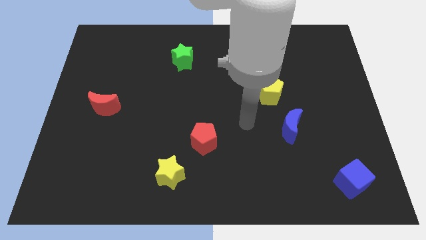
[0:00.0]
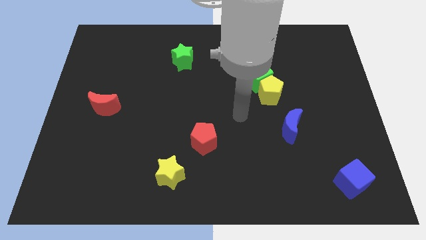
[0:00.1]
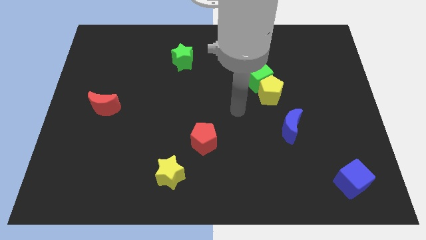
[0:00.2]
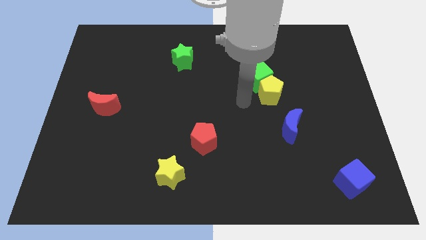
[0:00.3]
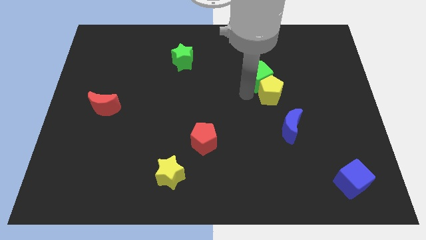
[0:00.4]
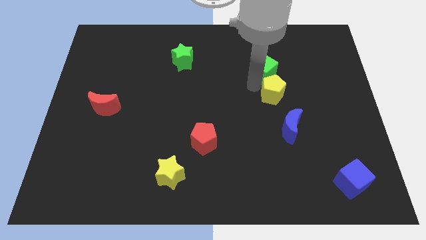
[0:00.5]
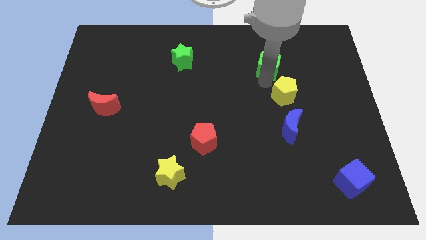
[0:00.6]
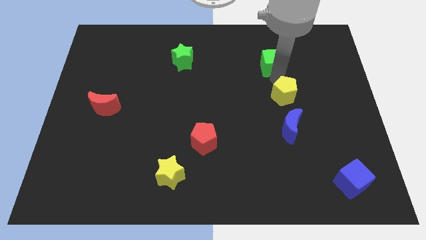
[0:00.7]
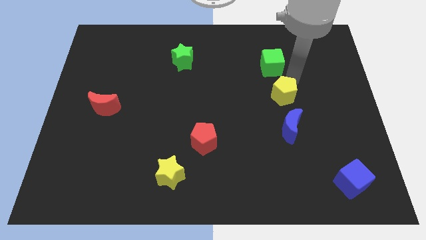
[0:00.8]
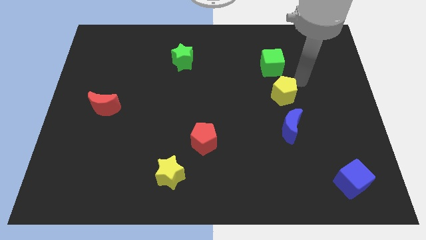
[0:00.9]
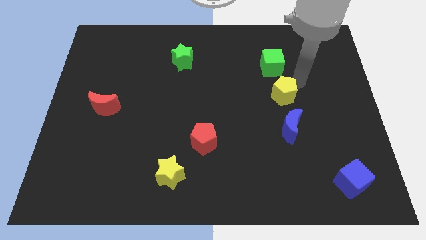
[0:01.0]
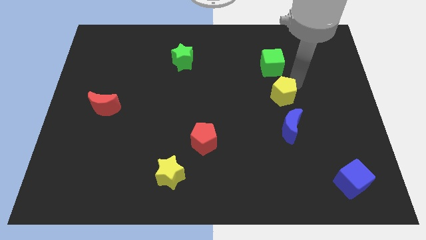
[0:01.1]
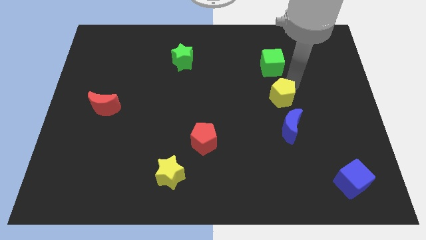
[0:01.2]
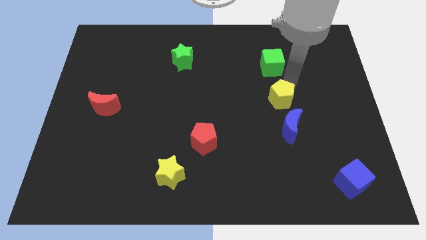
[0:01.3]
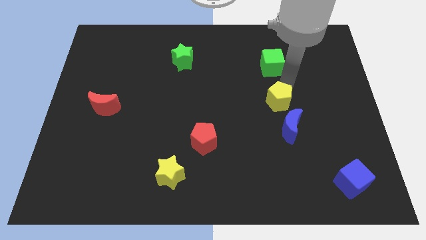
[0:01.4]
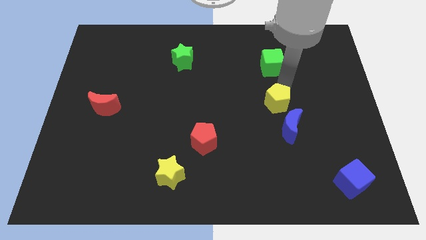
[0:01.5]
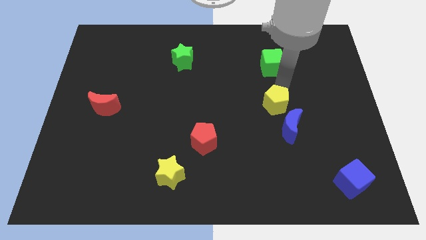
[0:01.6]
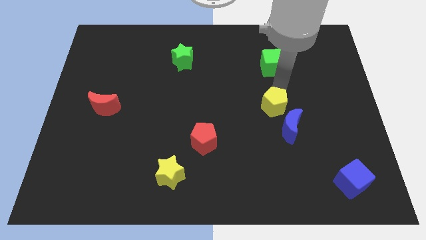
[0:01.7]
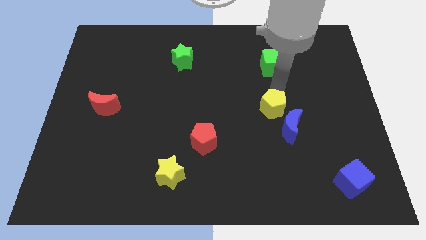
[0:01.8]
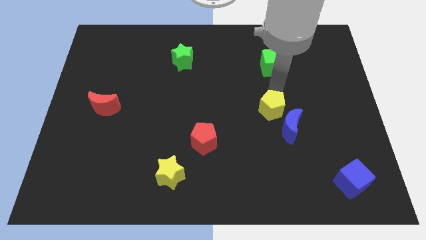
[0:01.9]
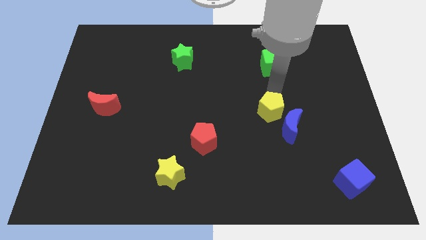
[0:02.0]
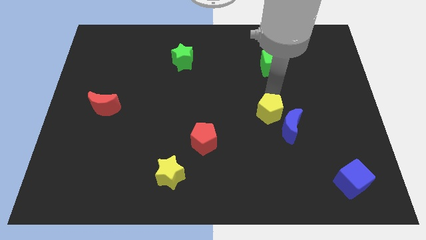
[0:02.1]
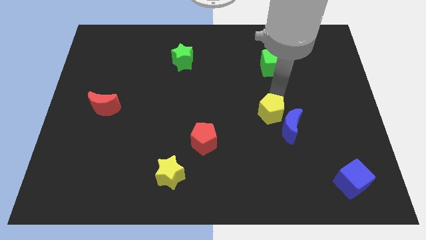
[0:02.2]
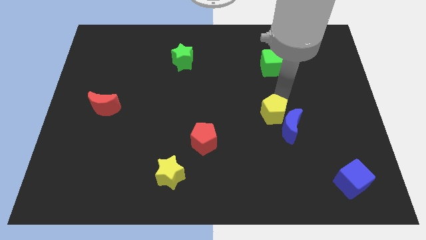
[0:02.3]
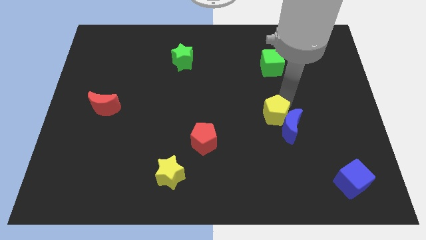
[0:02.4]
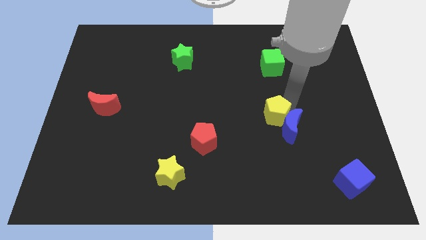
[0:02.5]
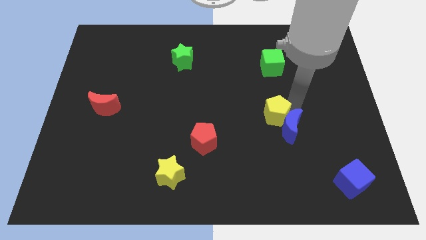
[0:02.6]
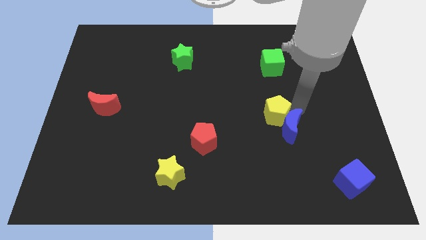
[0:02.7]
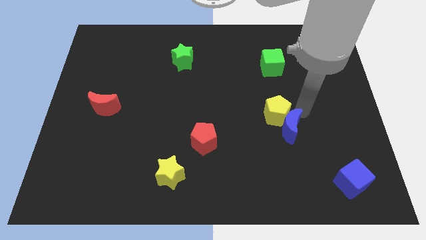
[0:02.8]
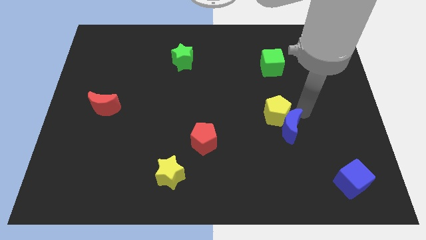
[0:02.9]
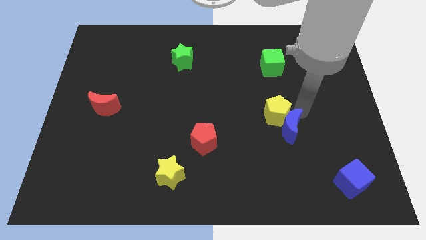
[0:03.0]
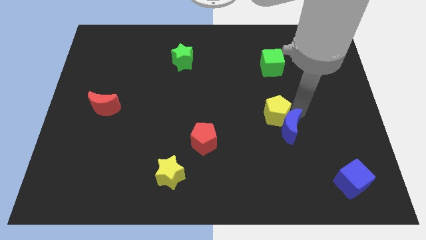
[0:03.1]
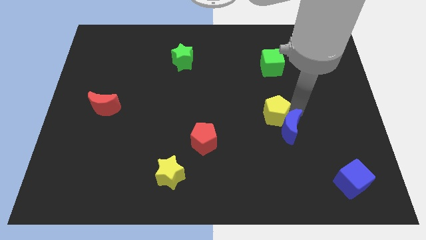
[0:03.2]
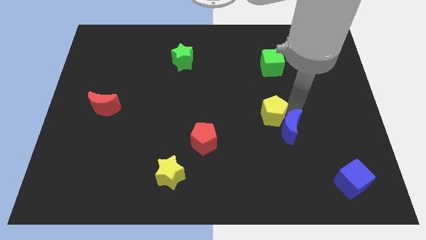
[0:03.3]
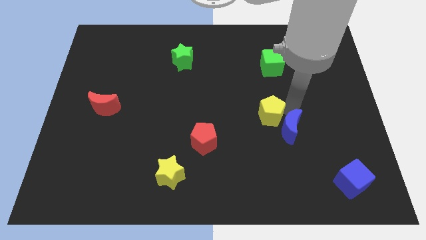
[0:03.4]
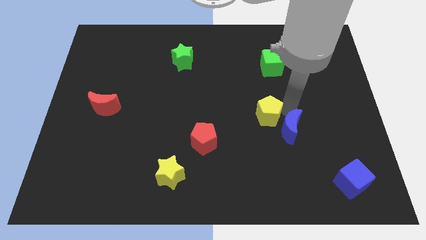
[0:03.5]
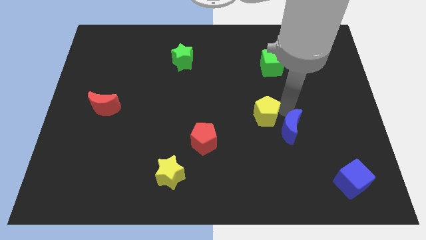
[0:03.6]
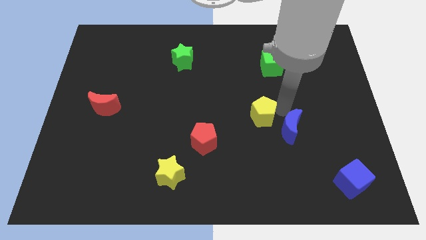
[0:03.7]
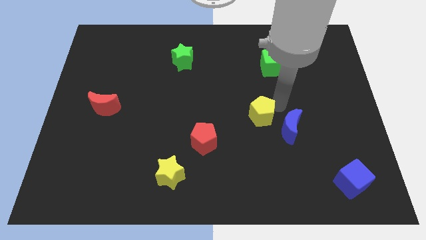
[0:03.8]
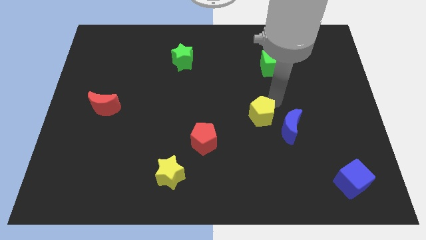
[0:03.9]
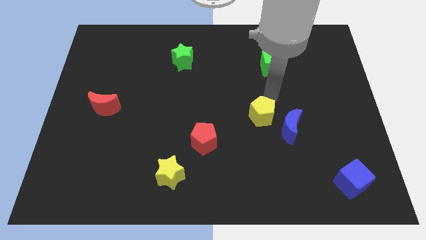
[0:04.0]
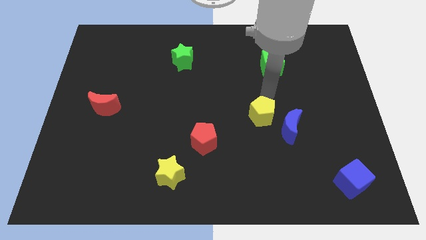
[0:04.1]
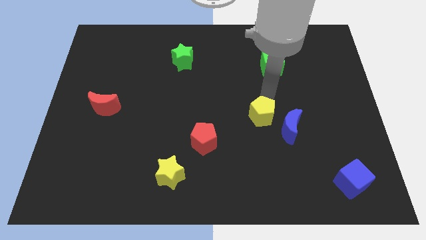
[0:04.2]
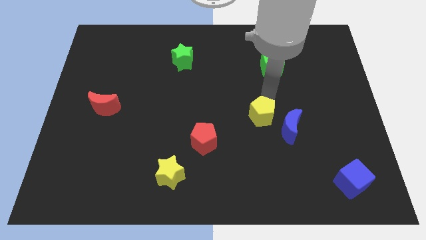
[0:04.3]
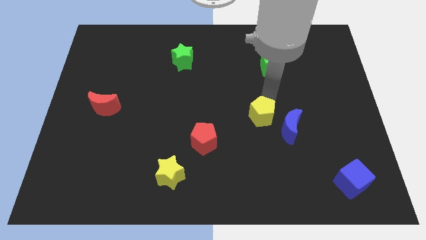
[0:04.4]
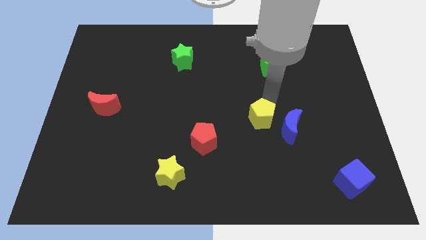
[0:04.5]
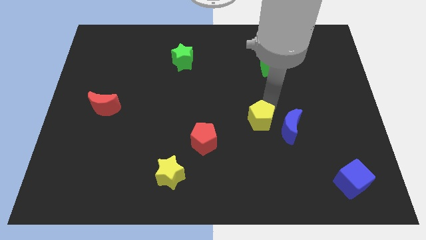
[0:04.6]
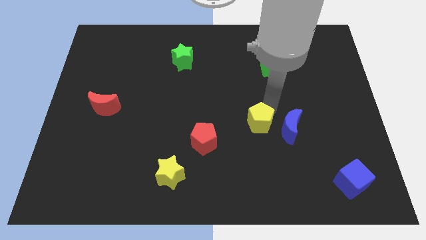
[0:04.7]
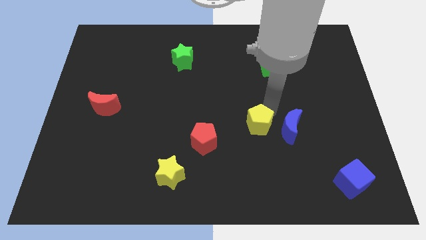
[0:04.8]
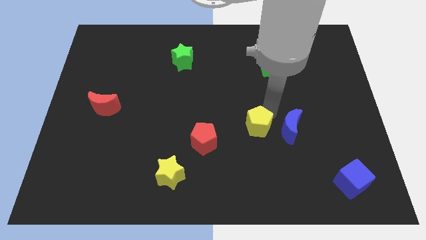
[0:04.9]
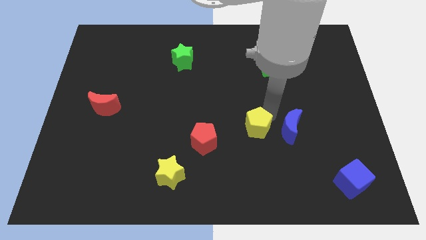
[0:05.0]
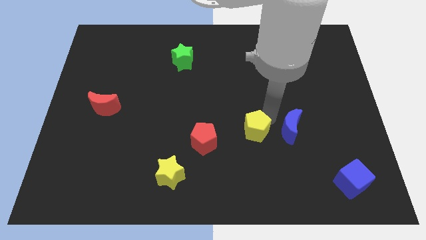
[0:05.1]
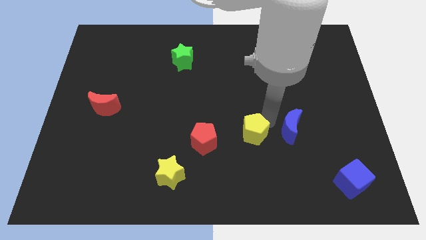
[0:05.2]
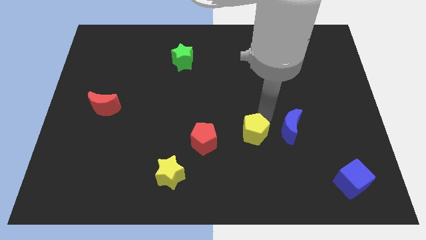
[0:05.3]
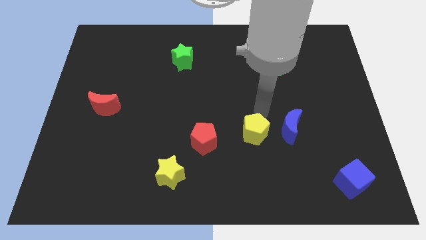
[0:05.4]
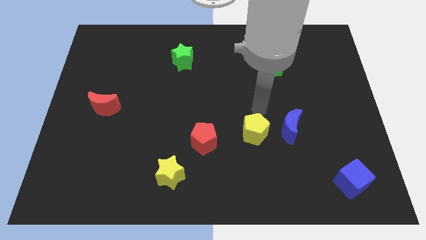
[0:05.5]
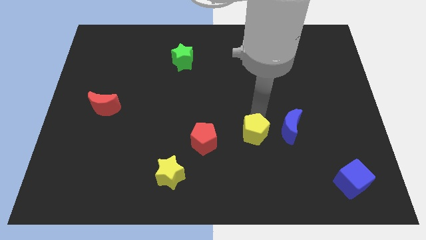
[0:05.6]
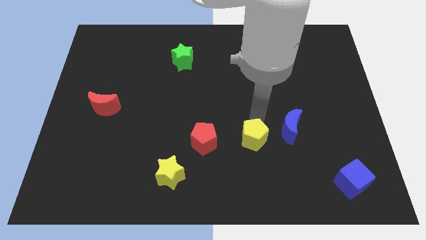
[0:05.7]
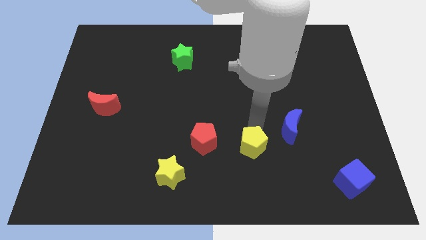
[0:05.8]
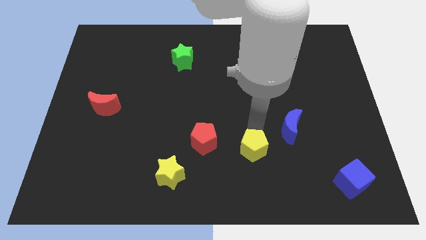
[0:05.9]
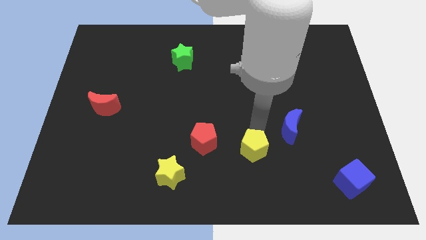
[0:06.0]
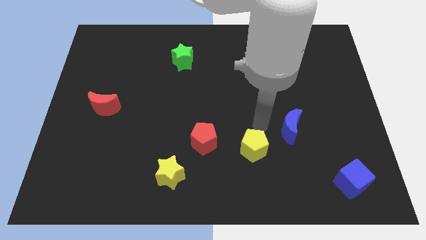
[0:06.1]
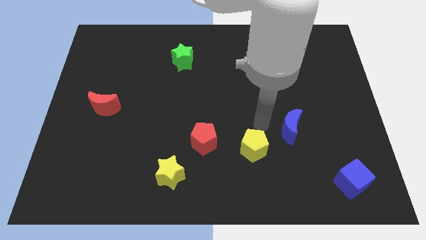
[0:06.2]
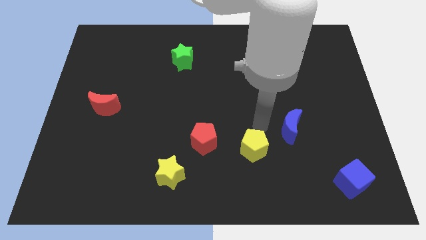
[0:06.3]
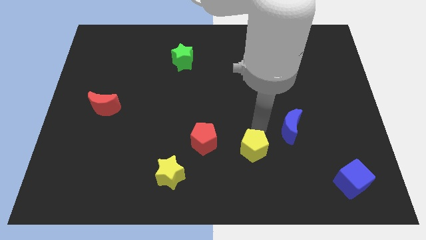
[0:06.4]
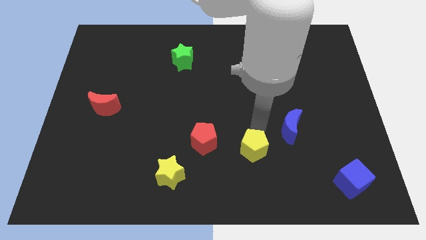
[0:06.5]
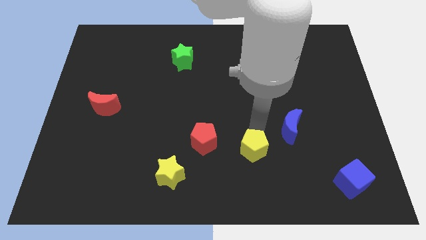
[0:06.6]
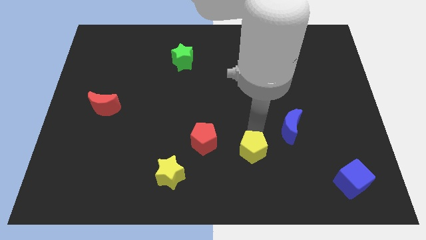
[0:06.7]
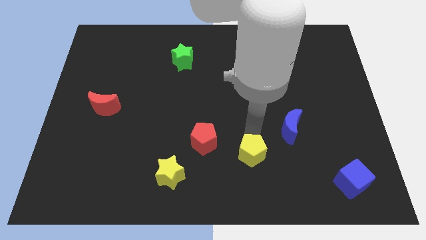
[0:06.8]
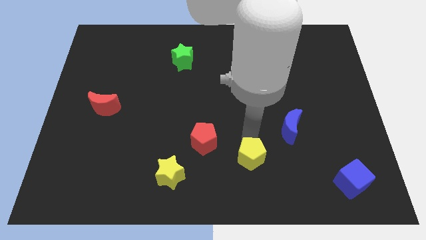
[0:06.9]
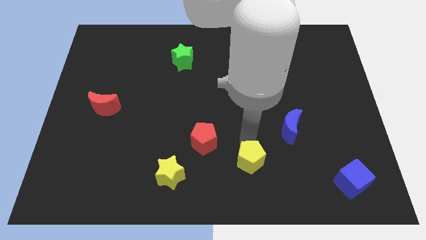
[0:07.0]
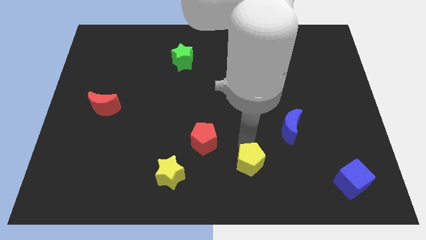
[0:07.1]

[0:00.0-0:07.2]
slide the yellow pentagon to the bottom
